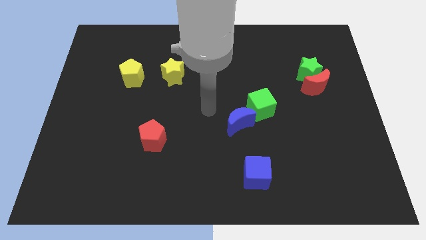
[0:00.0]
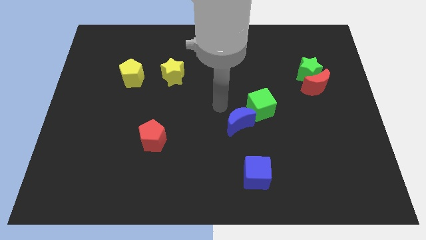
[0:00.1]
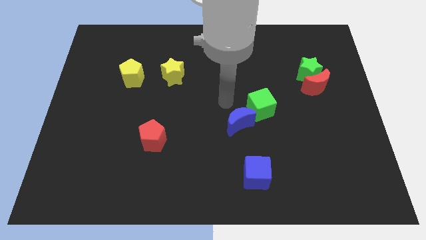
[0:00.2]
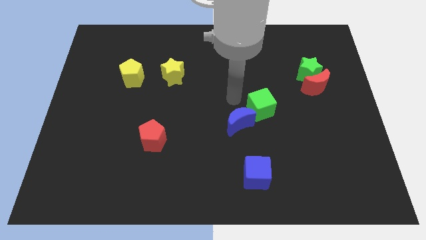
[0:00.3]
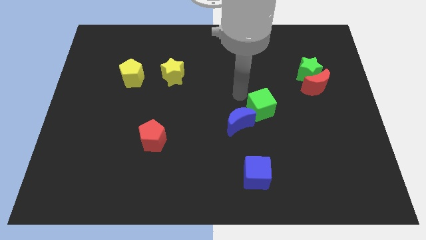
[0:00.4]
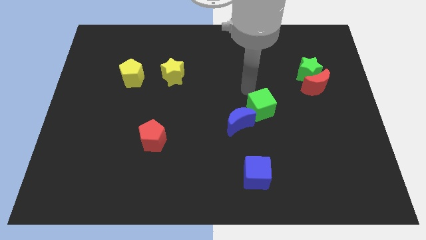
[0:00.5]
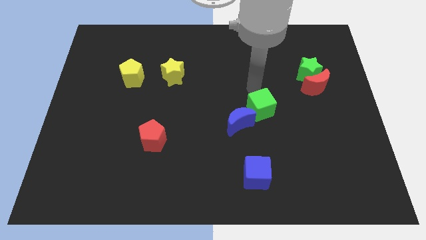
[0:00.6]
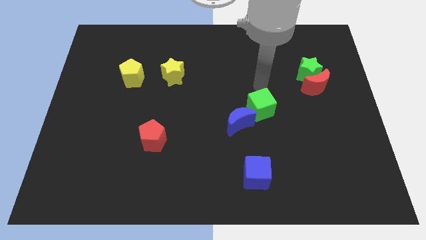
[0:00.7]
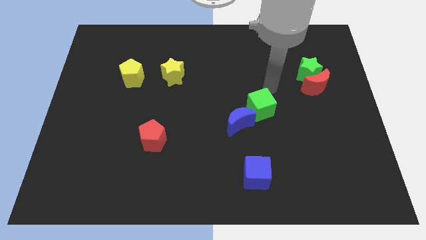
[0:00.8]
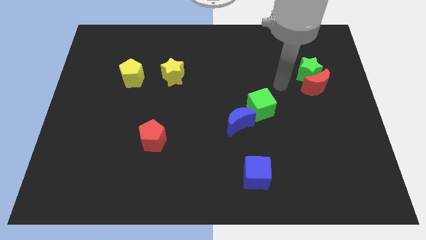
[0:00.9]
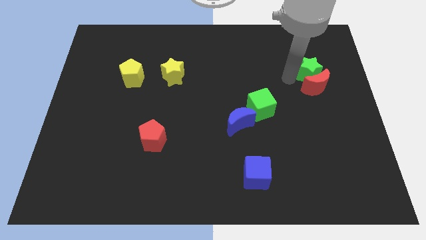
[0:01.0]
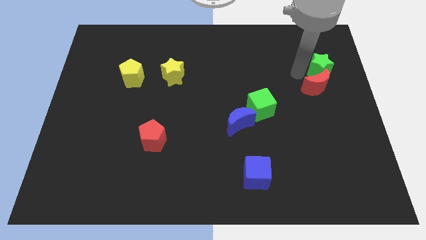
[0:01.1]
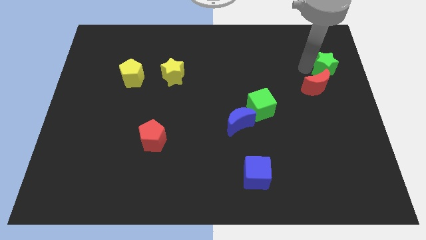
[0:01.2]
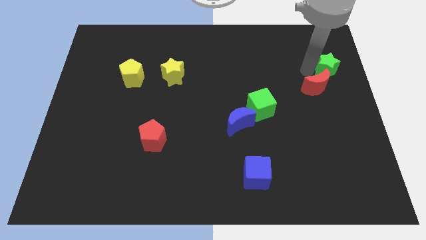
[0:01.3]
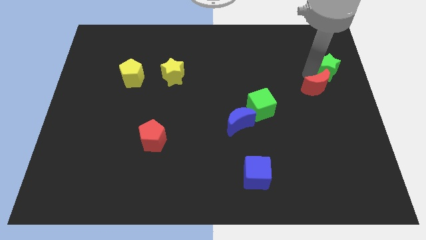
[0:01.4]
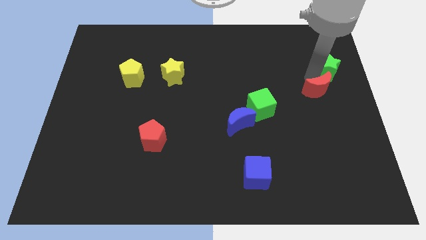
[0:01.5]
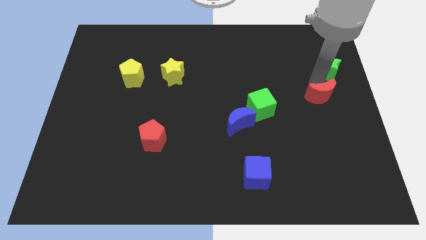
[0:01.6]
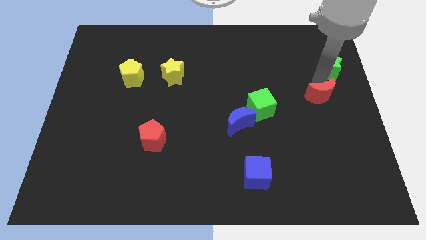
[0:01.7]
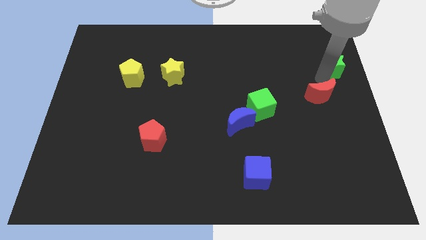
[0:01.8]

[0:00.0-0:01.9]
move the red moon away from the green star

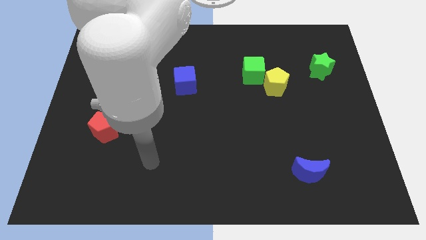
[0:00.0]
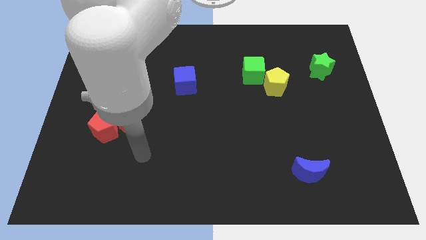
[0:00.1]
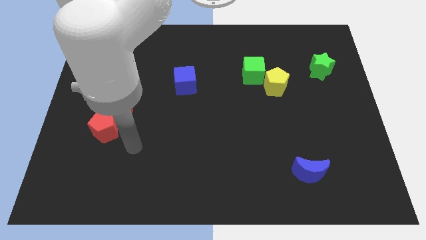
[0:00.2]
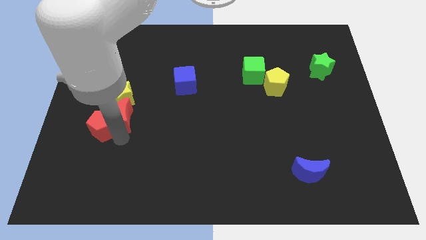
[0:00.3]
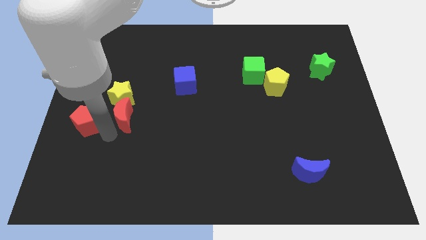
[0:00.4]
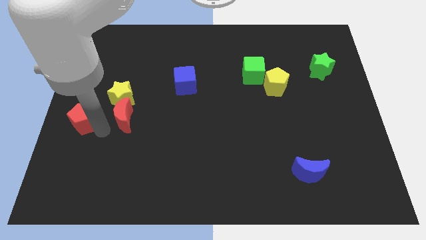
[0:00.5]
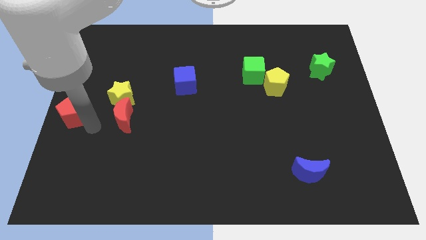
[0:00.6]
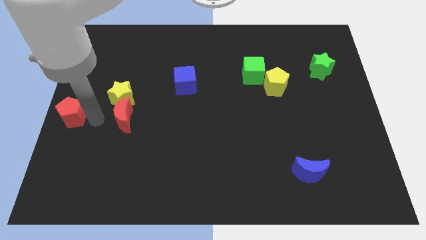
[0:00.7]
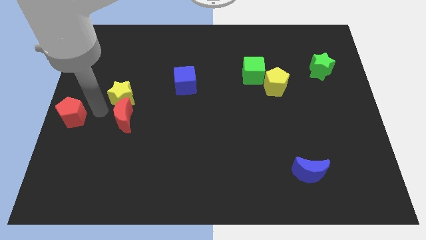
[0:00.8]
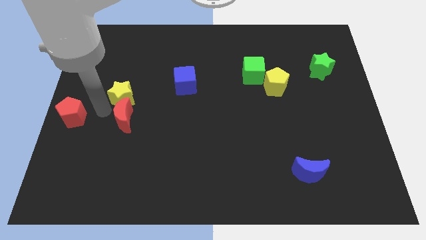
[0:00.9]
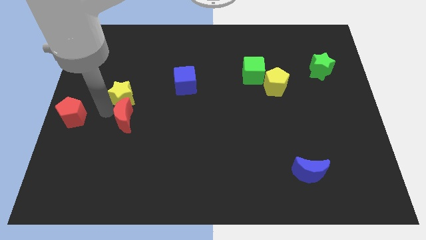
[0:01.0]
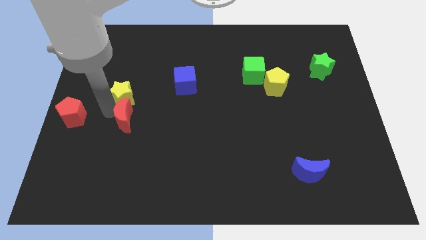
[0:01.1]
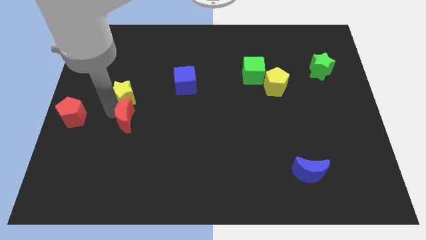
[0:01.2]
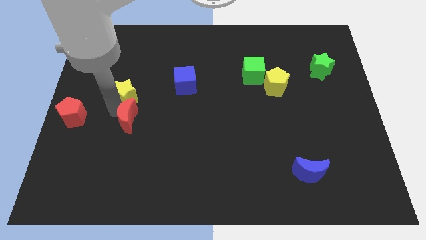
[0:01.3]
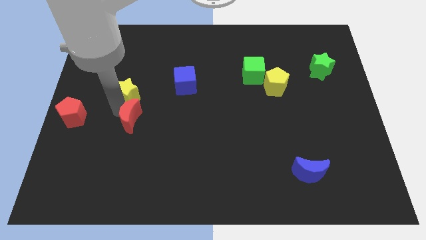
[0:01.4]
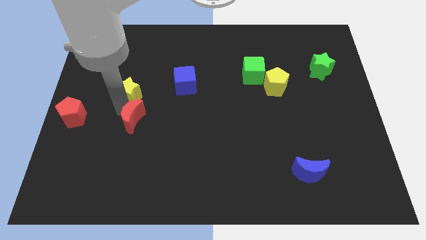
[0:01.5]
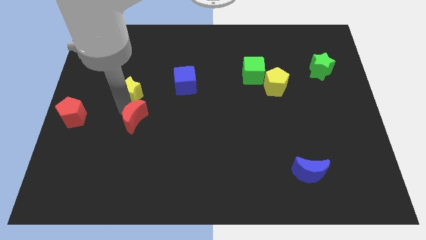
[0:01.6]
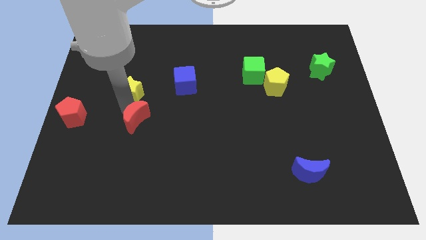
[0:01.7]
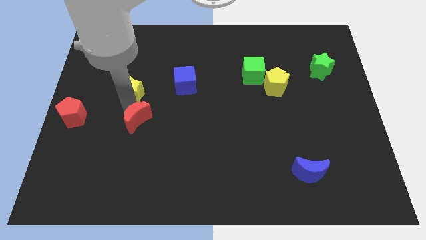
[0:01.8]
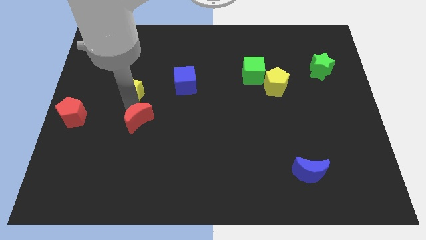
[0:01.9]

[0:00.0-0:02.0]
pull the red moon apart from the red pentagon and yellow star

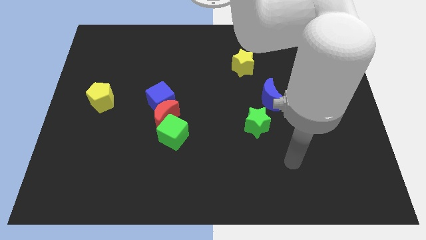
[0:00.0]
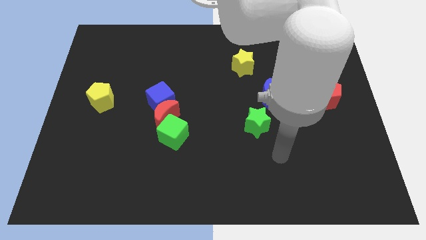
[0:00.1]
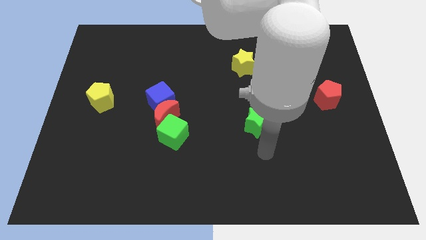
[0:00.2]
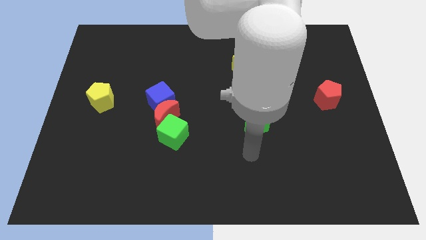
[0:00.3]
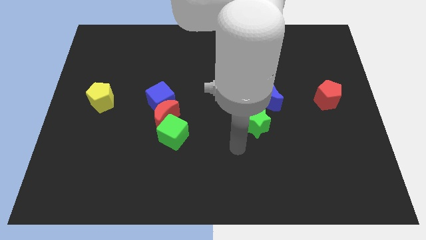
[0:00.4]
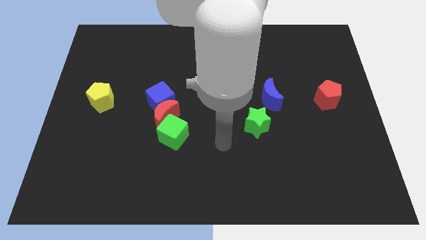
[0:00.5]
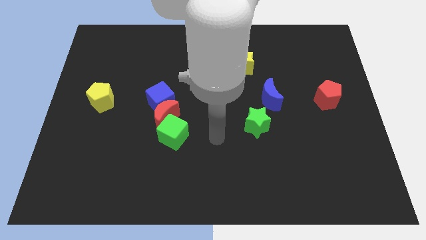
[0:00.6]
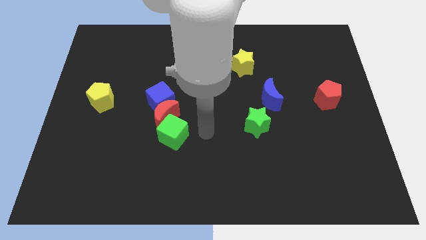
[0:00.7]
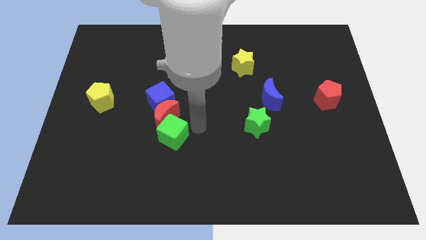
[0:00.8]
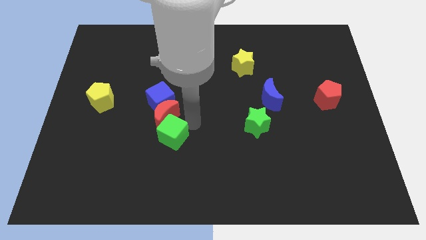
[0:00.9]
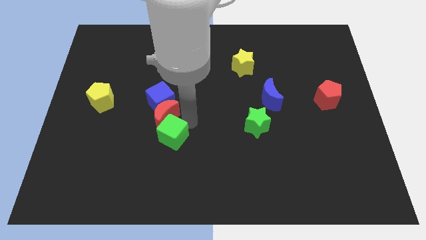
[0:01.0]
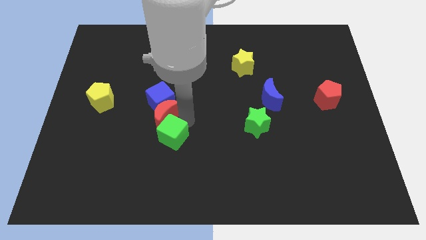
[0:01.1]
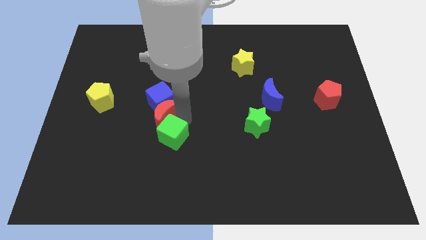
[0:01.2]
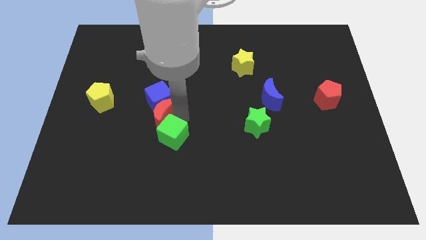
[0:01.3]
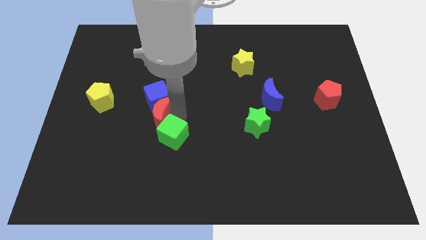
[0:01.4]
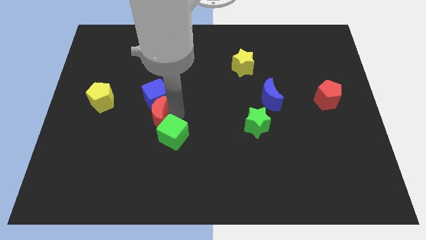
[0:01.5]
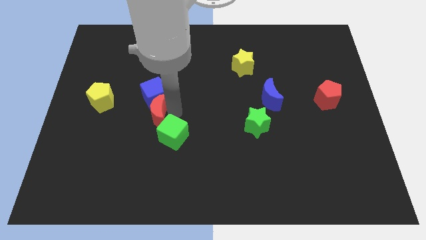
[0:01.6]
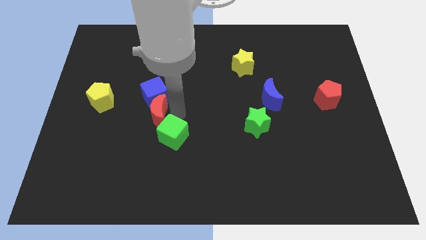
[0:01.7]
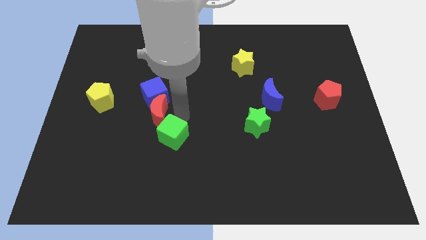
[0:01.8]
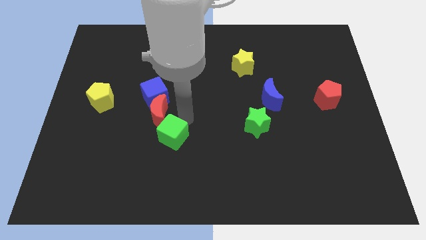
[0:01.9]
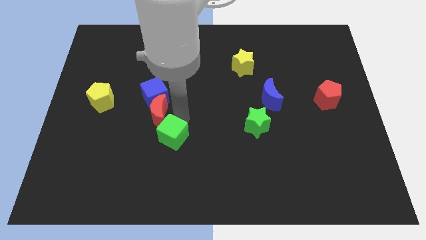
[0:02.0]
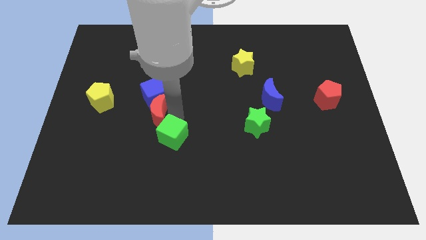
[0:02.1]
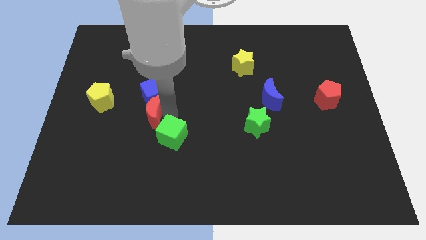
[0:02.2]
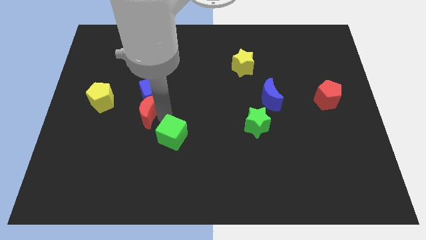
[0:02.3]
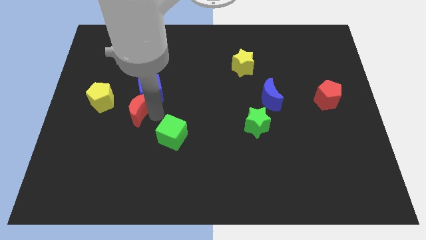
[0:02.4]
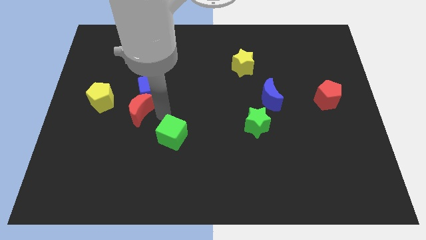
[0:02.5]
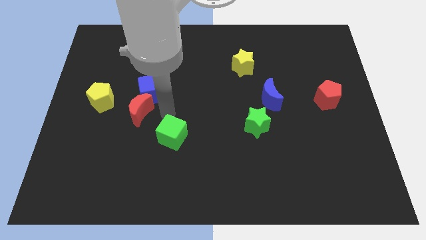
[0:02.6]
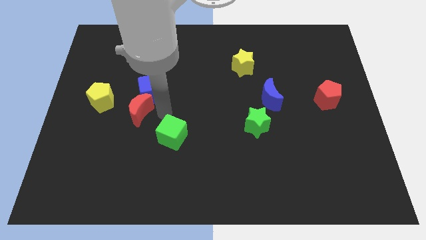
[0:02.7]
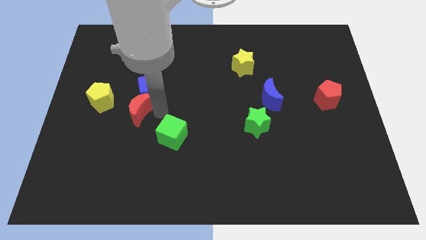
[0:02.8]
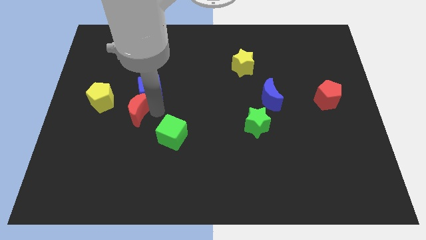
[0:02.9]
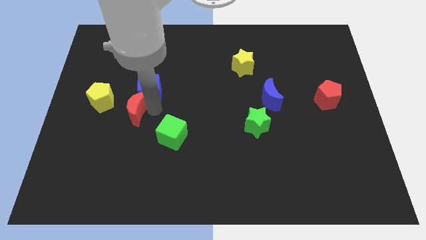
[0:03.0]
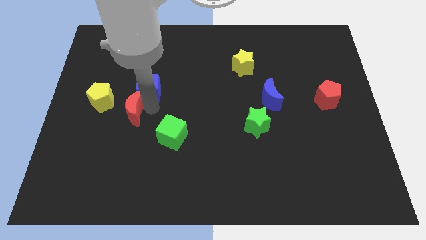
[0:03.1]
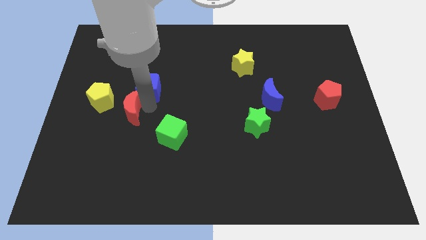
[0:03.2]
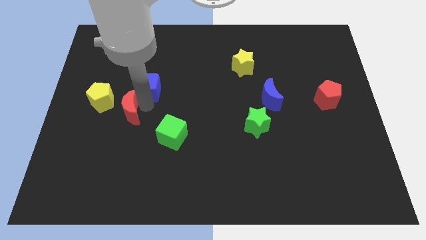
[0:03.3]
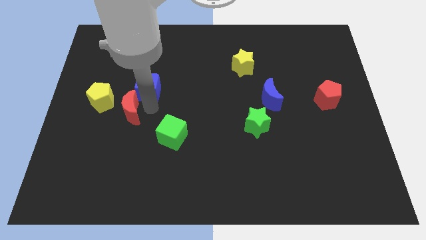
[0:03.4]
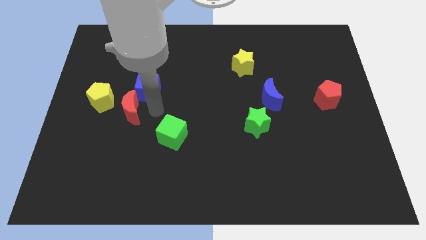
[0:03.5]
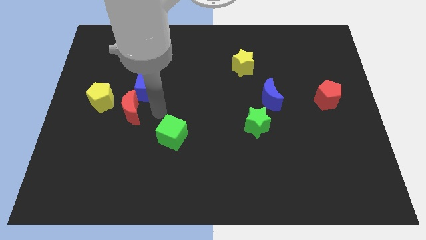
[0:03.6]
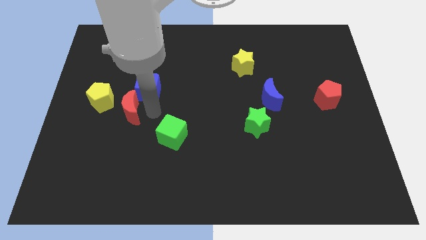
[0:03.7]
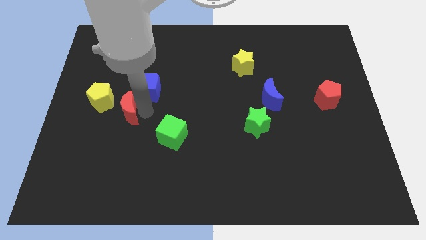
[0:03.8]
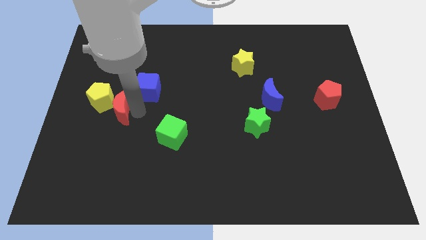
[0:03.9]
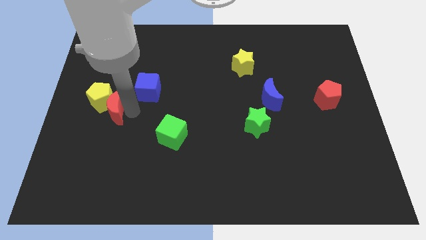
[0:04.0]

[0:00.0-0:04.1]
separate the red moon from the blue cube and green cube

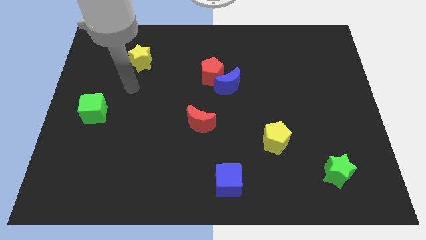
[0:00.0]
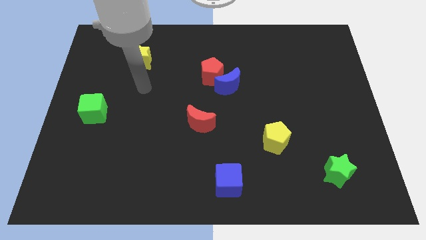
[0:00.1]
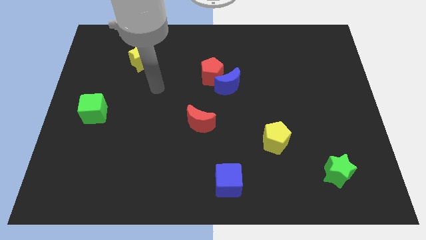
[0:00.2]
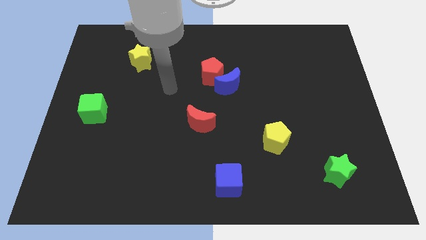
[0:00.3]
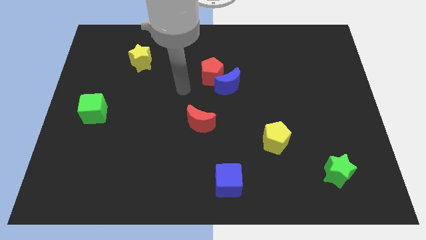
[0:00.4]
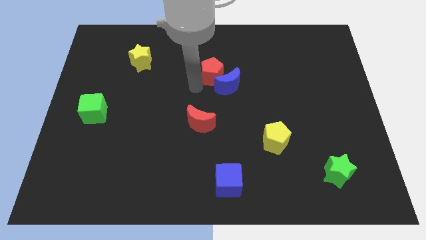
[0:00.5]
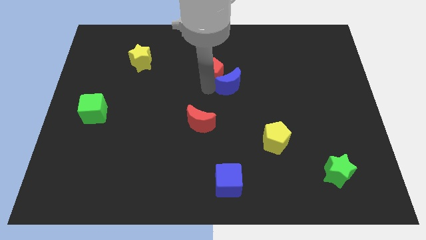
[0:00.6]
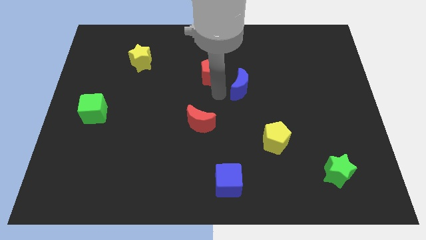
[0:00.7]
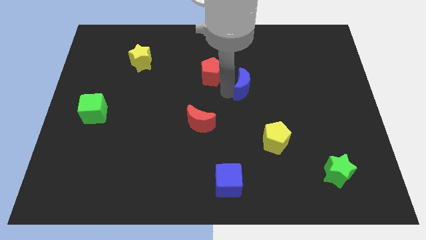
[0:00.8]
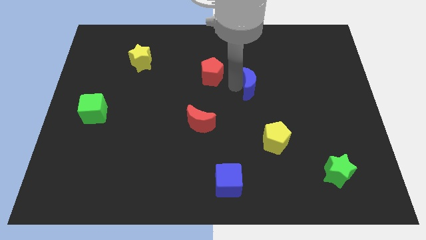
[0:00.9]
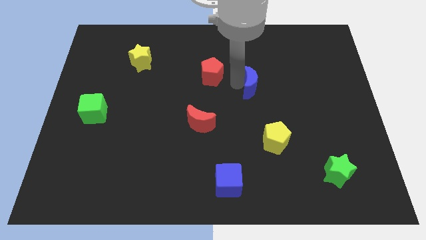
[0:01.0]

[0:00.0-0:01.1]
move the red pentagon away from the blue moon

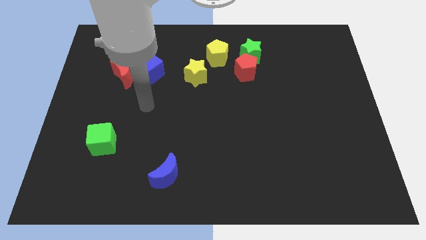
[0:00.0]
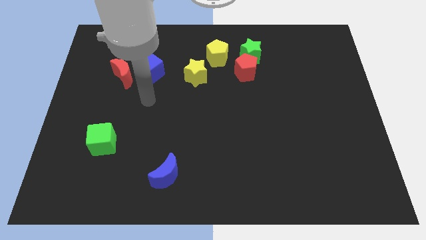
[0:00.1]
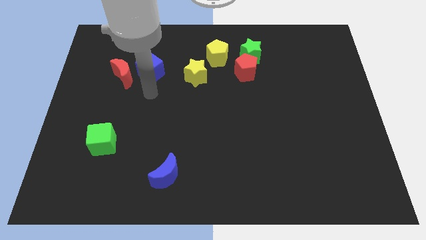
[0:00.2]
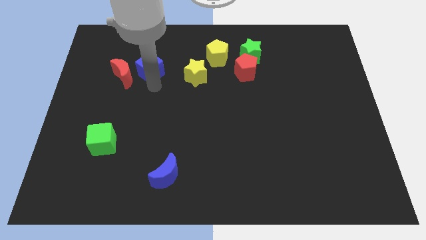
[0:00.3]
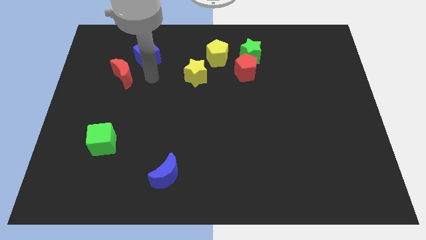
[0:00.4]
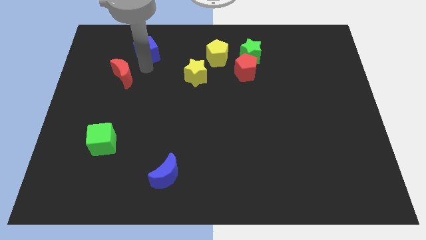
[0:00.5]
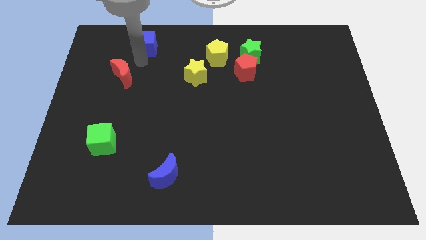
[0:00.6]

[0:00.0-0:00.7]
separate the red moon from the blue cube
